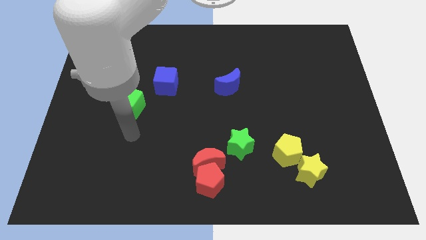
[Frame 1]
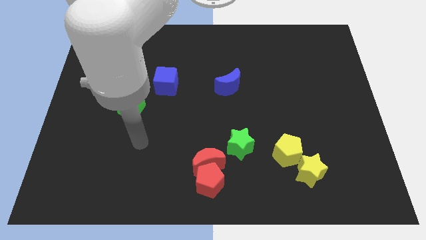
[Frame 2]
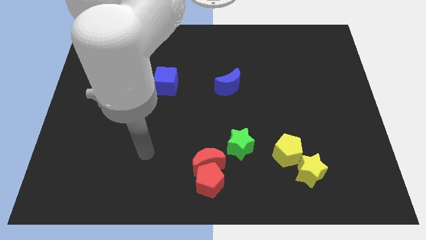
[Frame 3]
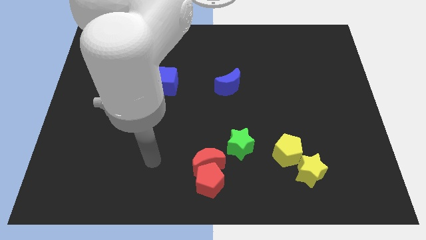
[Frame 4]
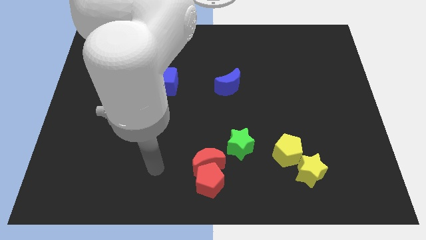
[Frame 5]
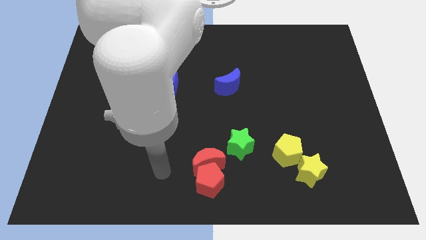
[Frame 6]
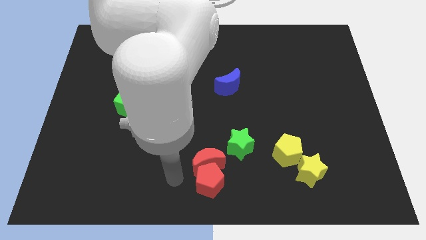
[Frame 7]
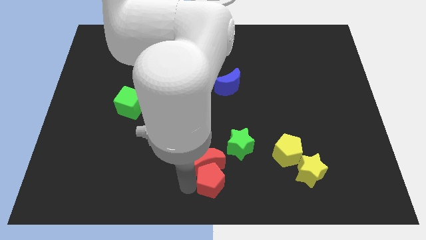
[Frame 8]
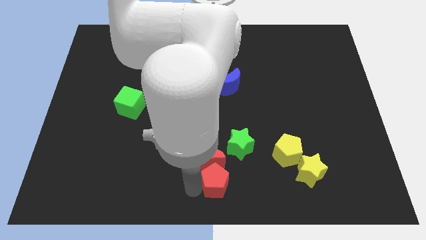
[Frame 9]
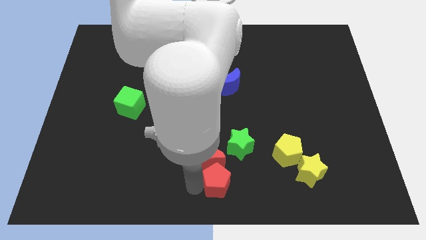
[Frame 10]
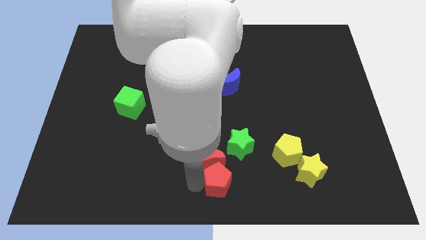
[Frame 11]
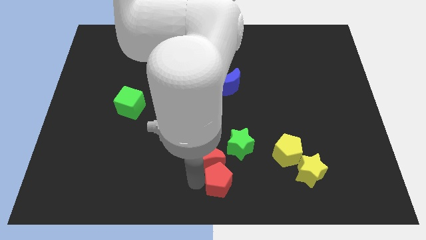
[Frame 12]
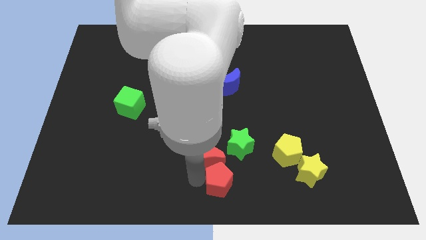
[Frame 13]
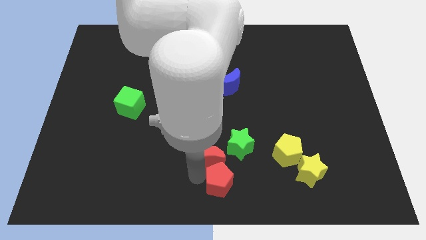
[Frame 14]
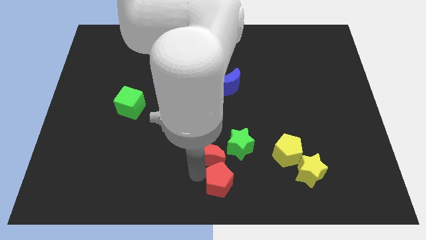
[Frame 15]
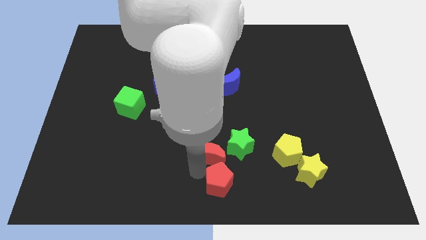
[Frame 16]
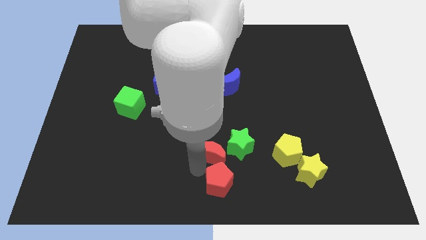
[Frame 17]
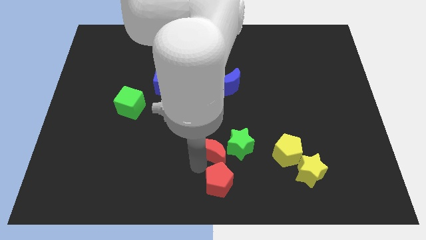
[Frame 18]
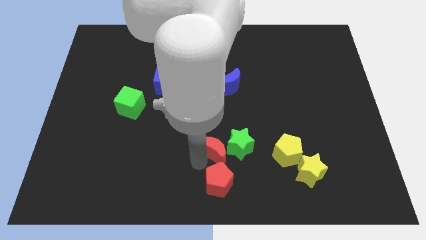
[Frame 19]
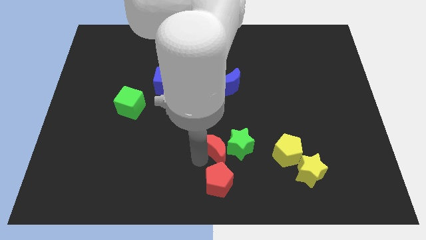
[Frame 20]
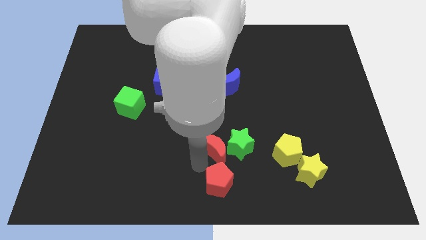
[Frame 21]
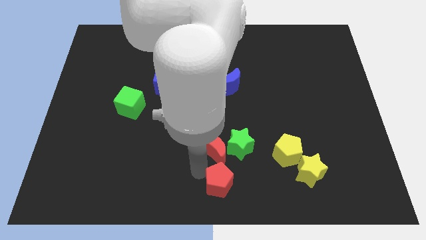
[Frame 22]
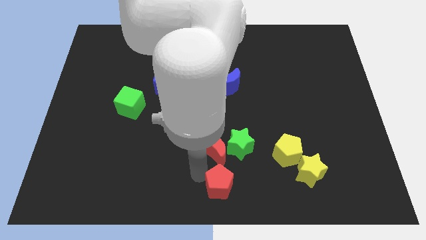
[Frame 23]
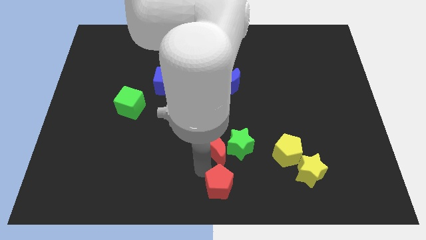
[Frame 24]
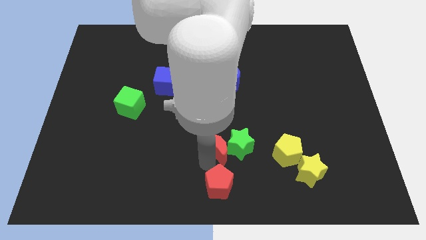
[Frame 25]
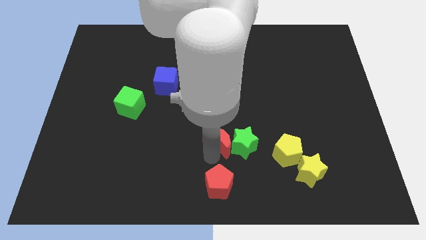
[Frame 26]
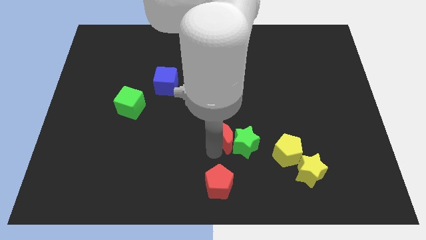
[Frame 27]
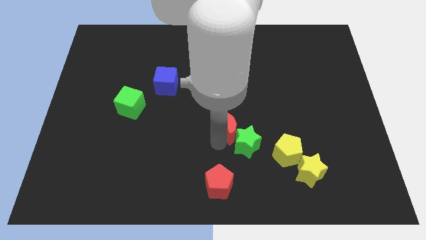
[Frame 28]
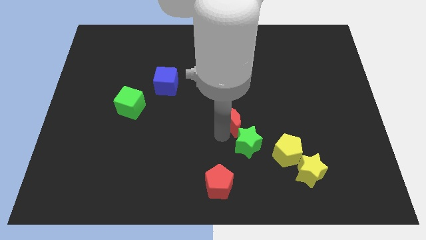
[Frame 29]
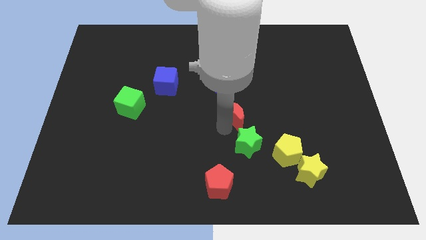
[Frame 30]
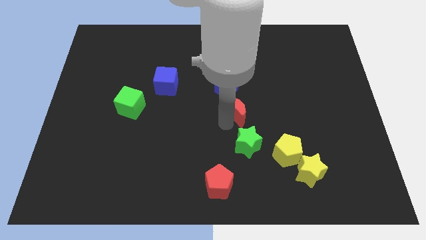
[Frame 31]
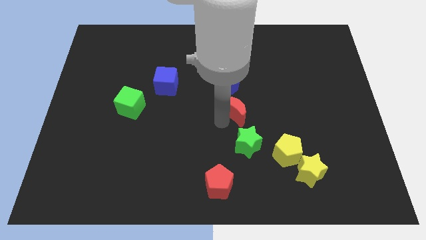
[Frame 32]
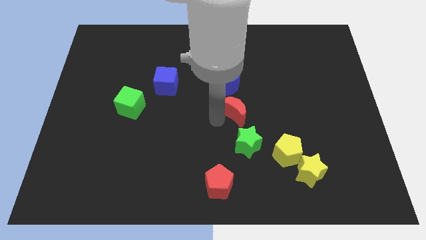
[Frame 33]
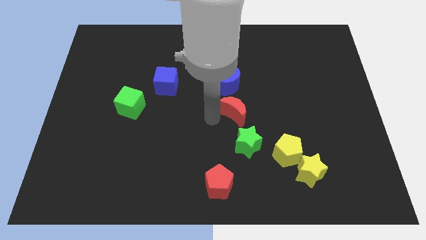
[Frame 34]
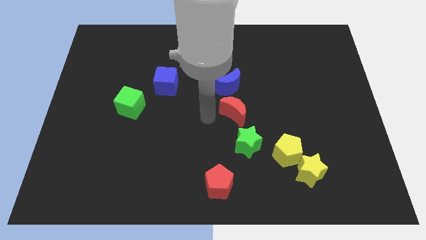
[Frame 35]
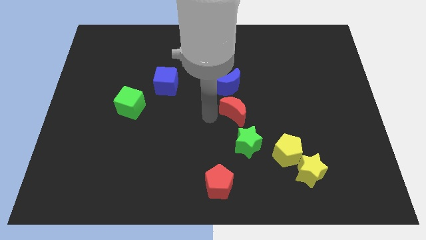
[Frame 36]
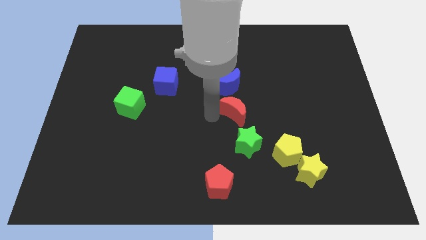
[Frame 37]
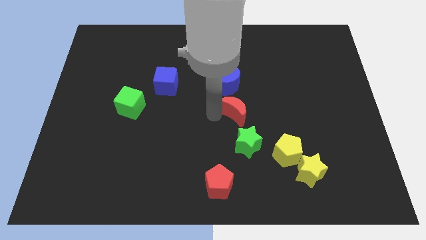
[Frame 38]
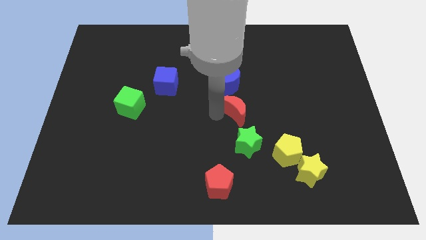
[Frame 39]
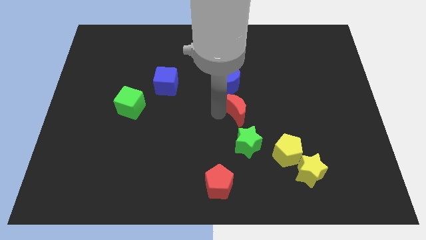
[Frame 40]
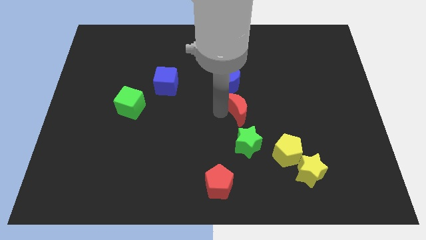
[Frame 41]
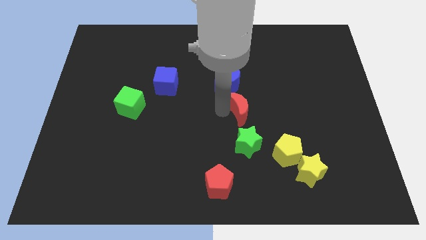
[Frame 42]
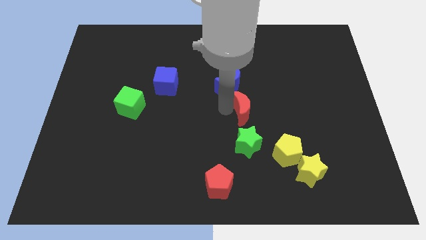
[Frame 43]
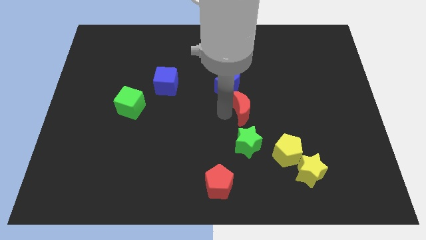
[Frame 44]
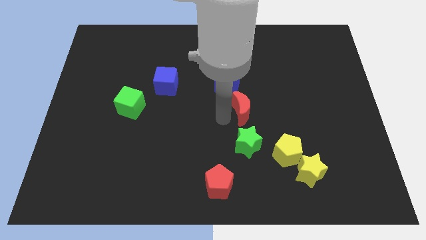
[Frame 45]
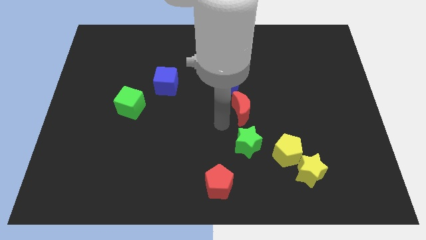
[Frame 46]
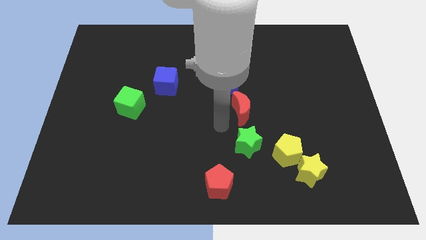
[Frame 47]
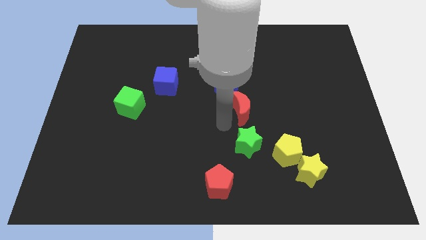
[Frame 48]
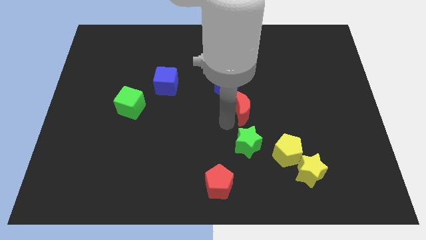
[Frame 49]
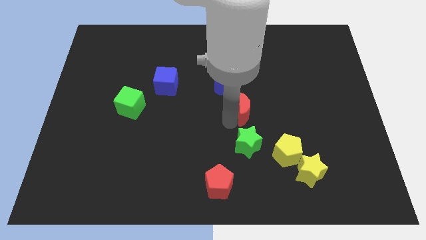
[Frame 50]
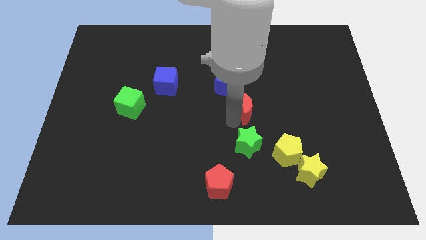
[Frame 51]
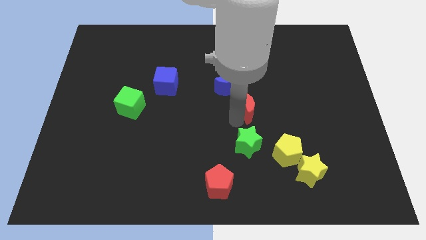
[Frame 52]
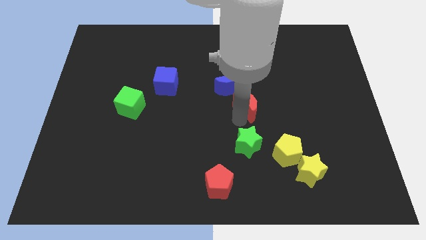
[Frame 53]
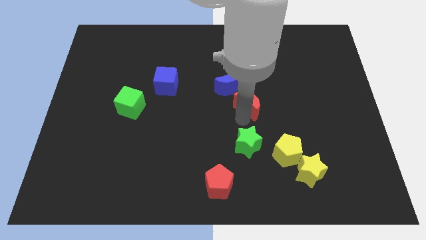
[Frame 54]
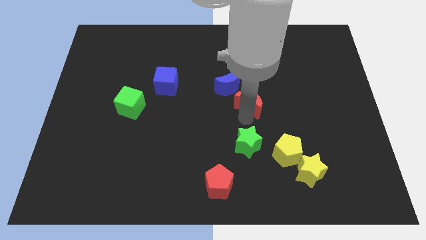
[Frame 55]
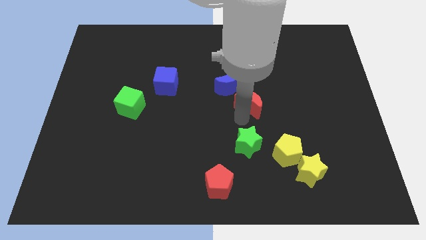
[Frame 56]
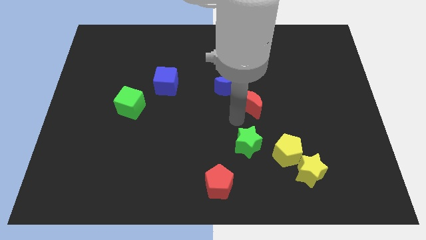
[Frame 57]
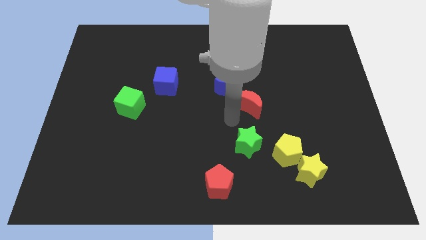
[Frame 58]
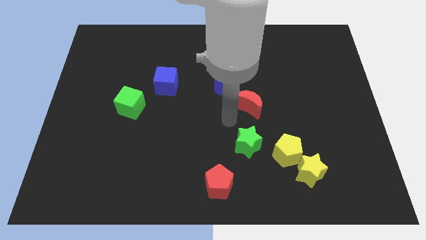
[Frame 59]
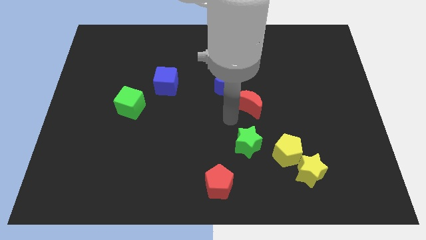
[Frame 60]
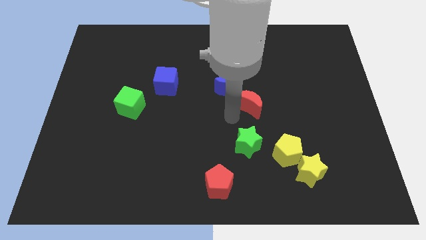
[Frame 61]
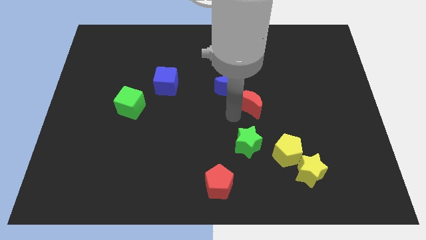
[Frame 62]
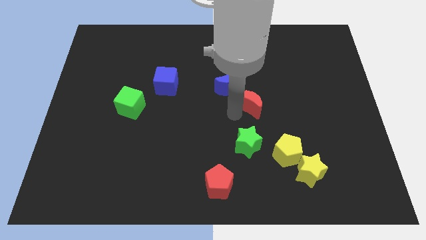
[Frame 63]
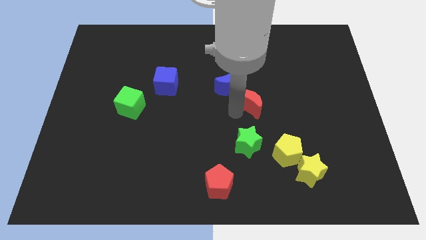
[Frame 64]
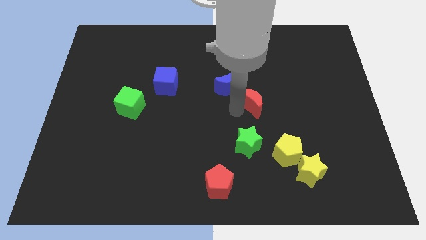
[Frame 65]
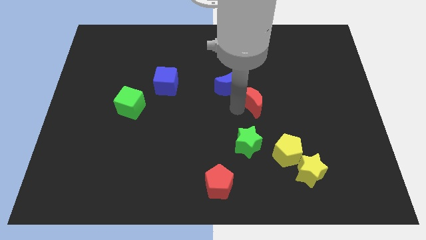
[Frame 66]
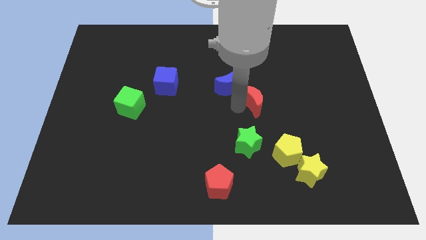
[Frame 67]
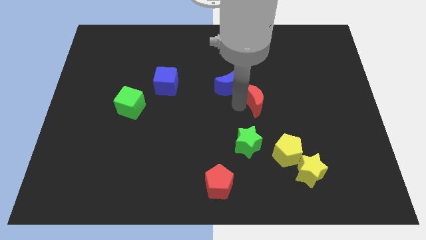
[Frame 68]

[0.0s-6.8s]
slide the red moon to the right of the blue moon

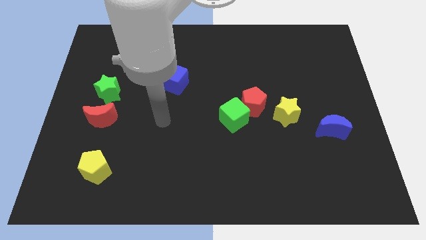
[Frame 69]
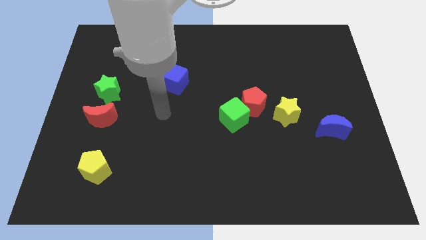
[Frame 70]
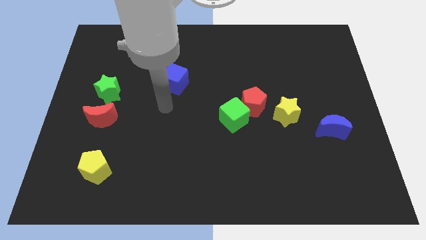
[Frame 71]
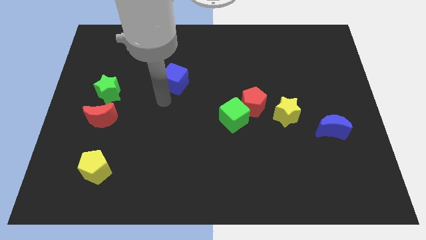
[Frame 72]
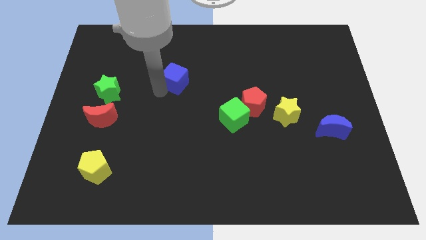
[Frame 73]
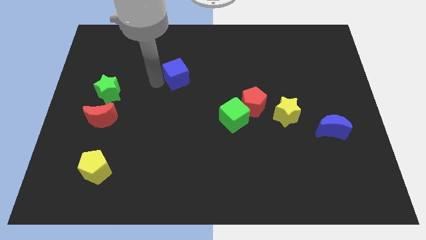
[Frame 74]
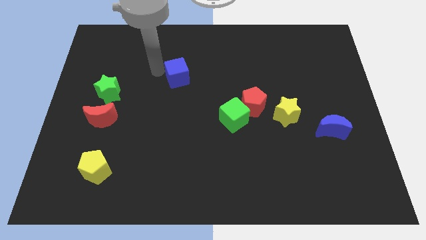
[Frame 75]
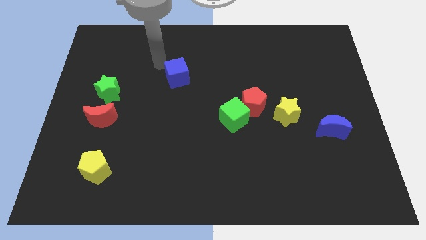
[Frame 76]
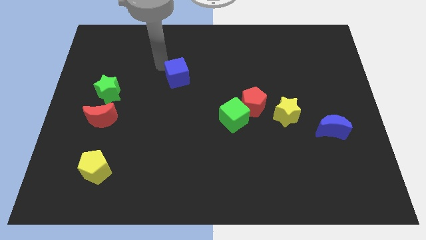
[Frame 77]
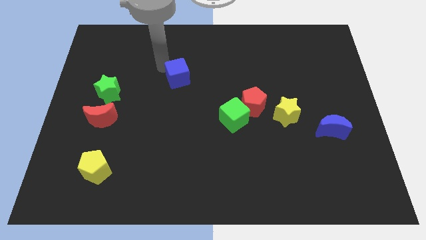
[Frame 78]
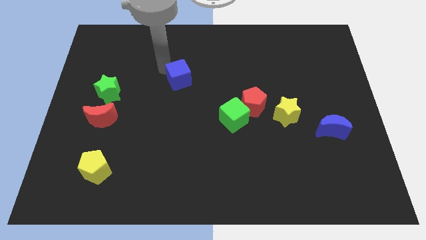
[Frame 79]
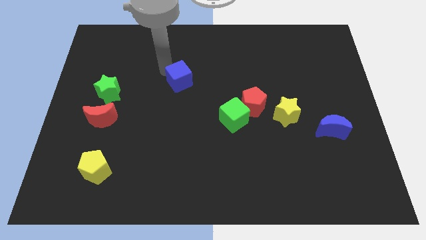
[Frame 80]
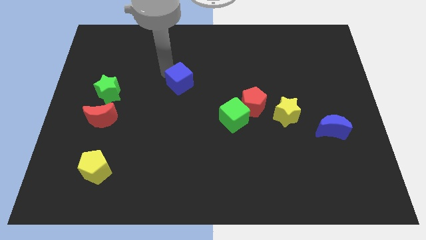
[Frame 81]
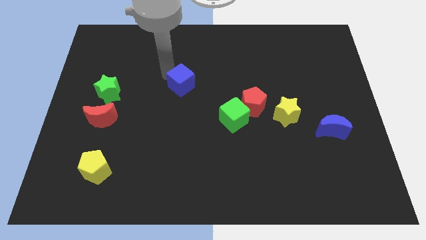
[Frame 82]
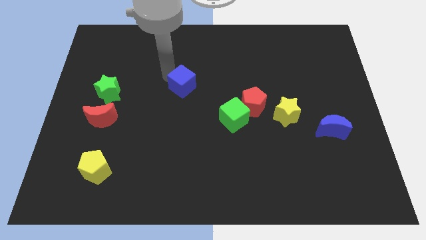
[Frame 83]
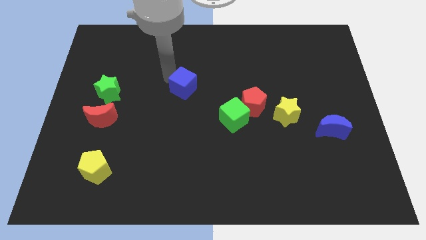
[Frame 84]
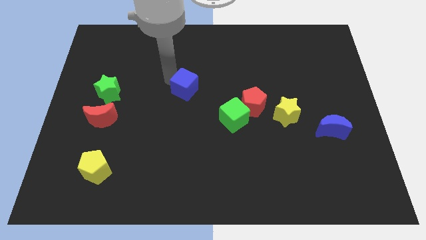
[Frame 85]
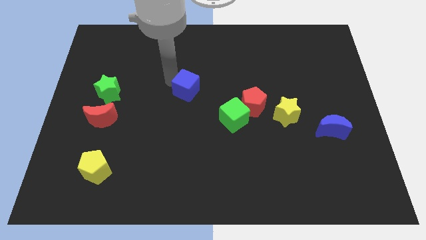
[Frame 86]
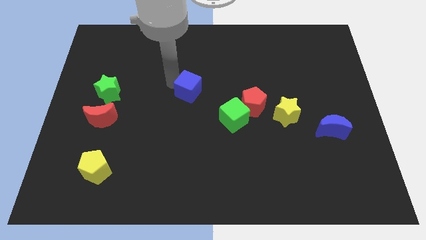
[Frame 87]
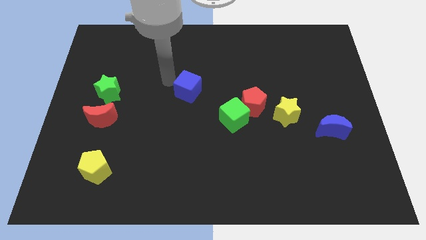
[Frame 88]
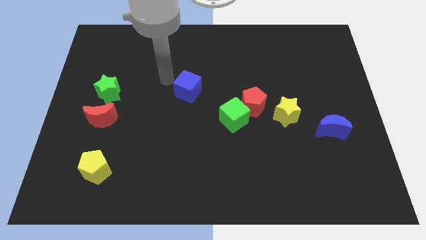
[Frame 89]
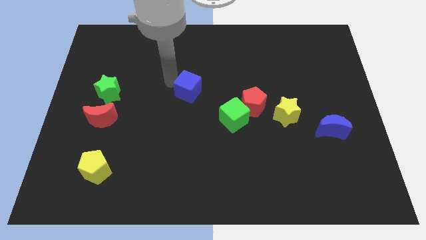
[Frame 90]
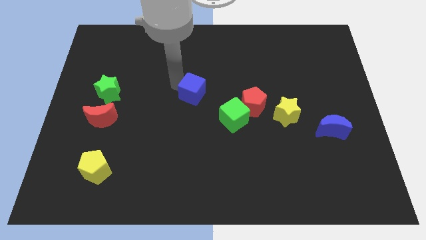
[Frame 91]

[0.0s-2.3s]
push the blue cube to the top left of the green cube
